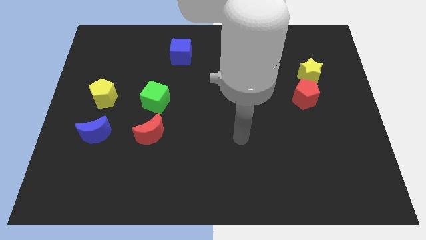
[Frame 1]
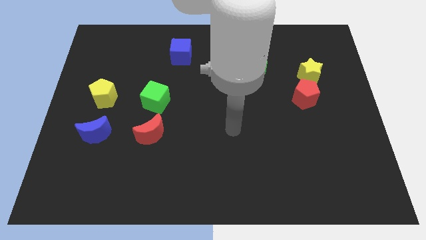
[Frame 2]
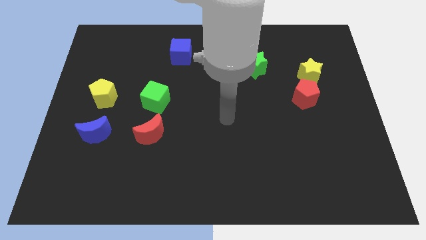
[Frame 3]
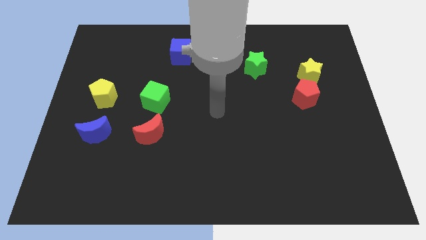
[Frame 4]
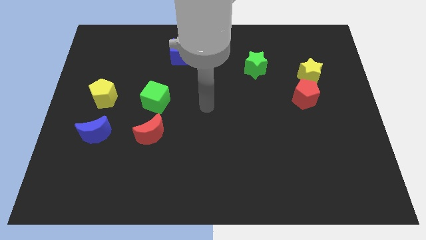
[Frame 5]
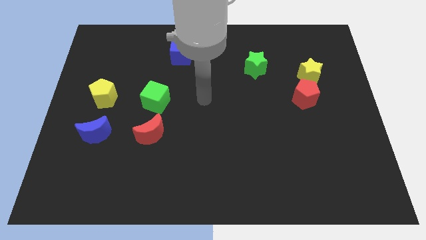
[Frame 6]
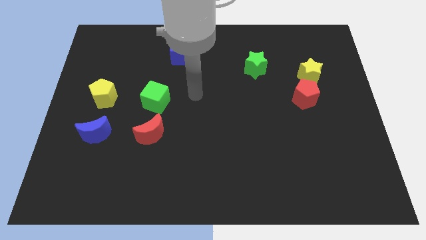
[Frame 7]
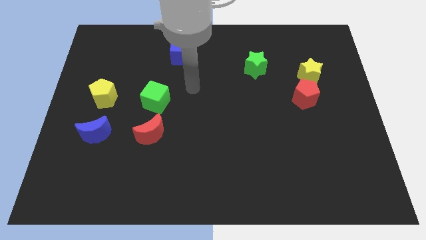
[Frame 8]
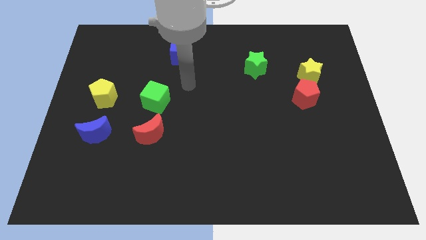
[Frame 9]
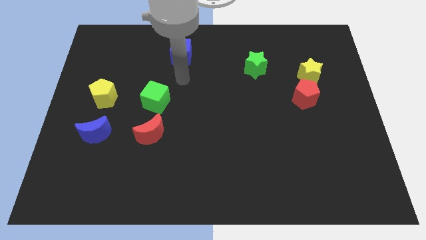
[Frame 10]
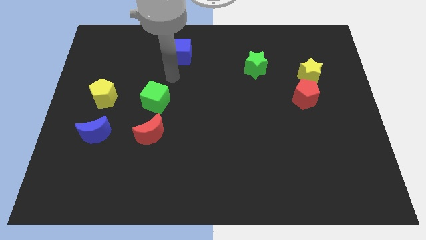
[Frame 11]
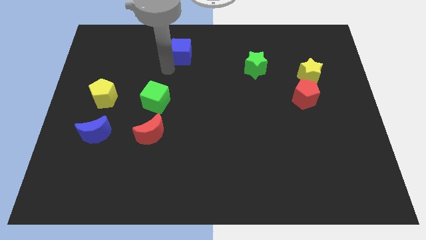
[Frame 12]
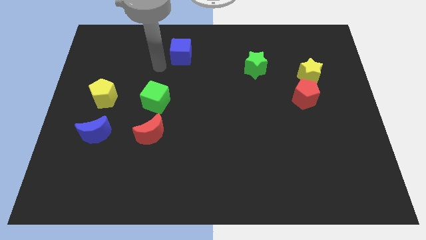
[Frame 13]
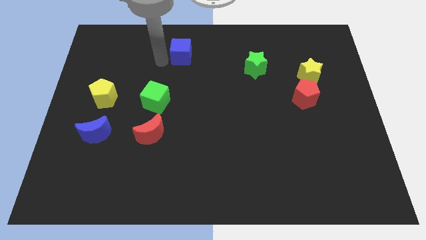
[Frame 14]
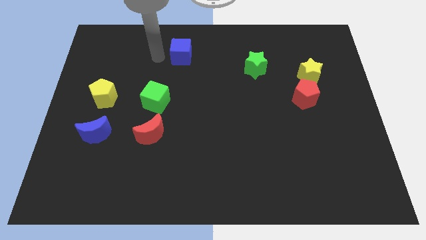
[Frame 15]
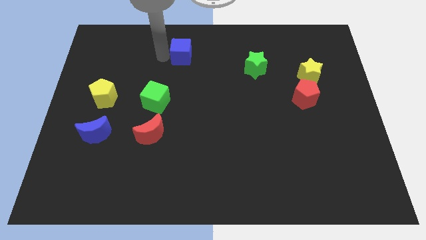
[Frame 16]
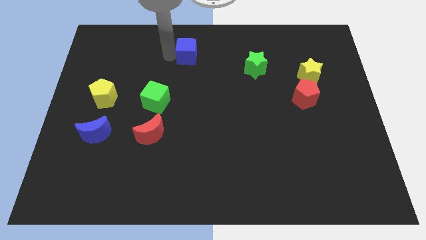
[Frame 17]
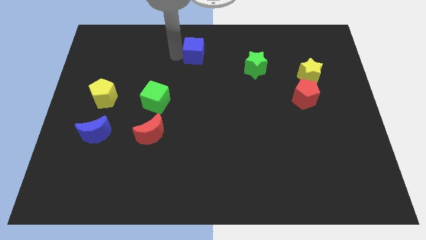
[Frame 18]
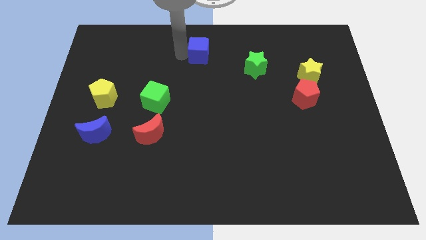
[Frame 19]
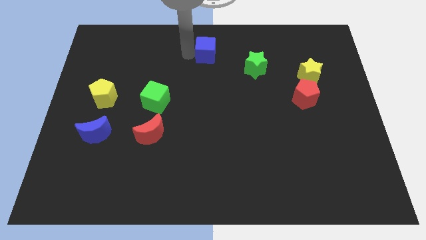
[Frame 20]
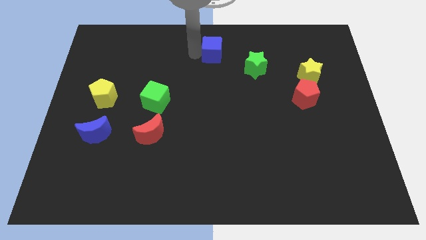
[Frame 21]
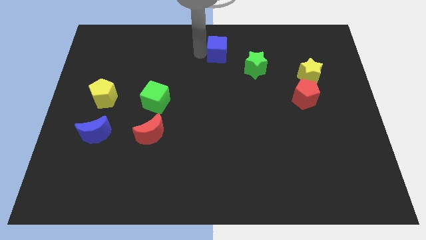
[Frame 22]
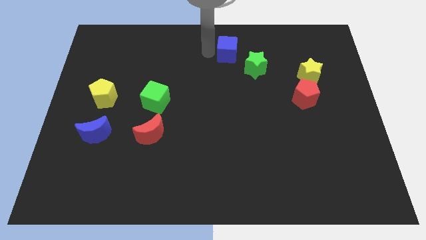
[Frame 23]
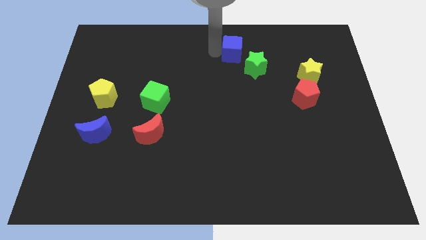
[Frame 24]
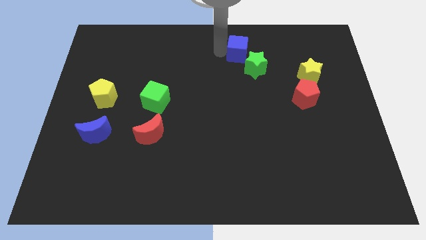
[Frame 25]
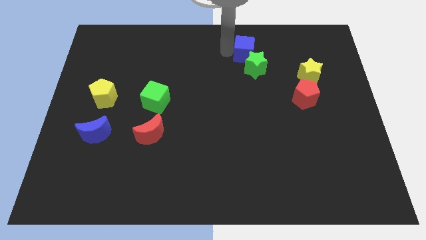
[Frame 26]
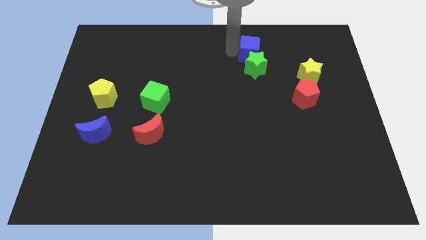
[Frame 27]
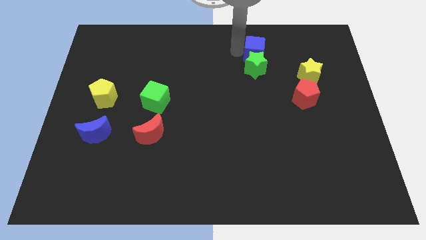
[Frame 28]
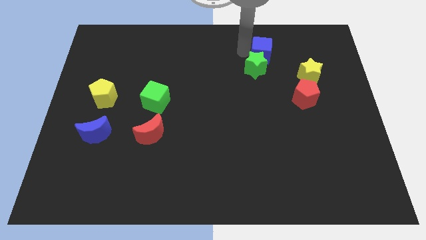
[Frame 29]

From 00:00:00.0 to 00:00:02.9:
slide the blue cube to the right

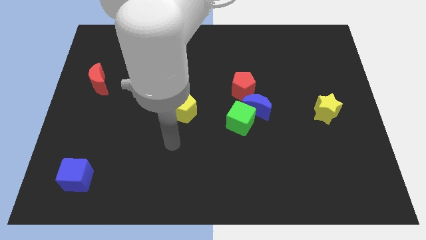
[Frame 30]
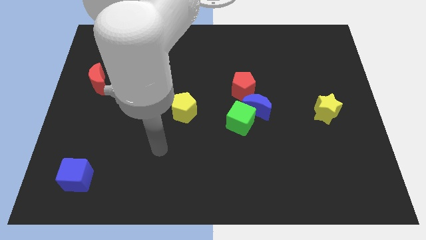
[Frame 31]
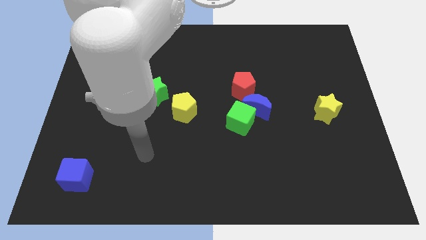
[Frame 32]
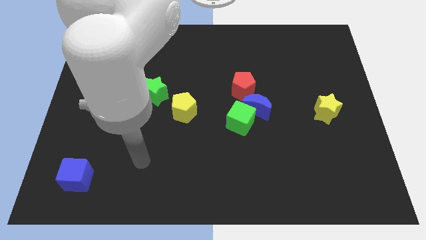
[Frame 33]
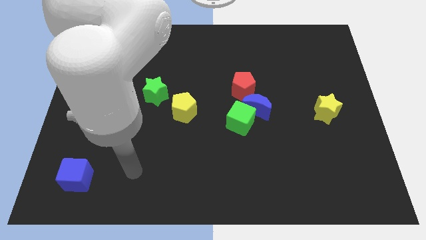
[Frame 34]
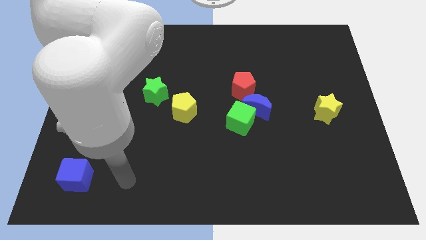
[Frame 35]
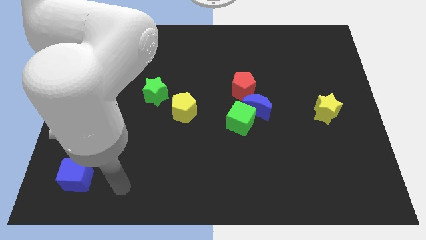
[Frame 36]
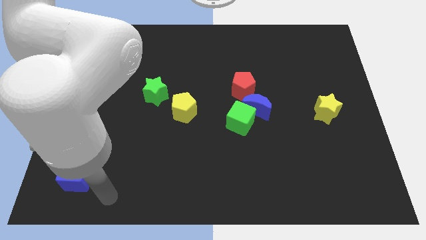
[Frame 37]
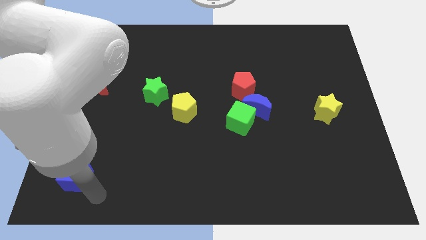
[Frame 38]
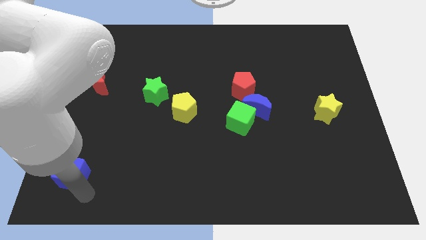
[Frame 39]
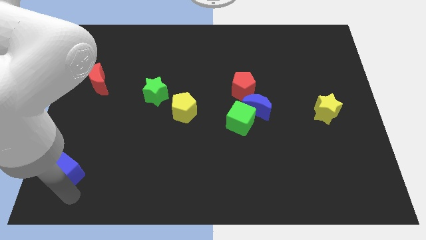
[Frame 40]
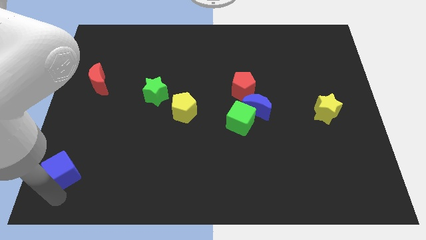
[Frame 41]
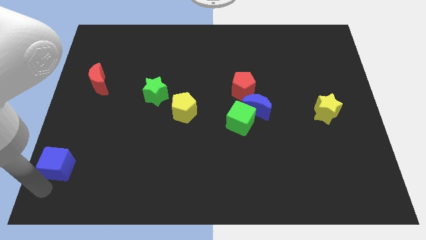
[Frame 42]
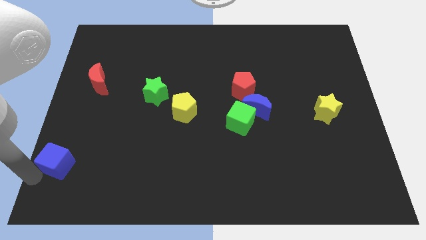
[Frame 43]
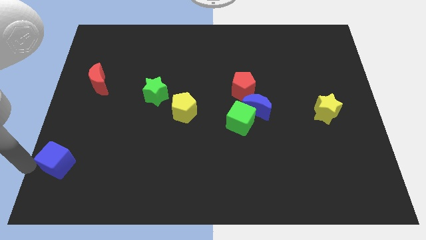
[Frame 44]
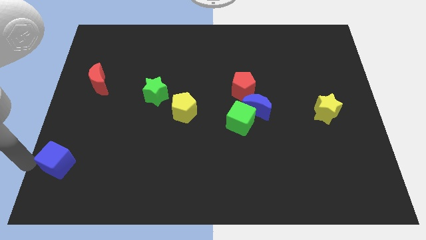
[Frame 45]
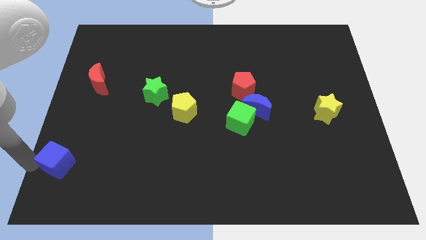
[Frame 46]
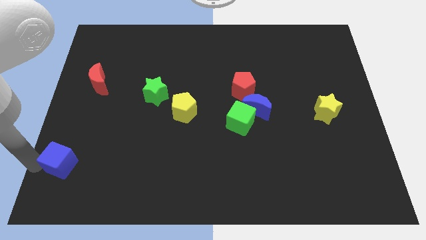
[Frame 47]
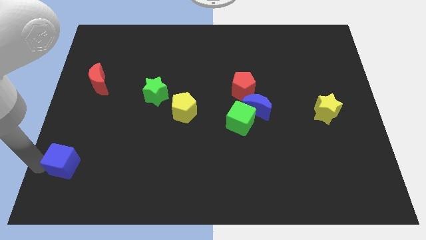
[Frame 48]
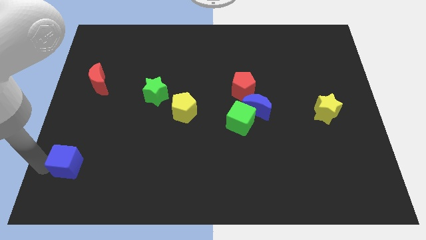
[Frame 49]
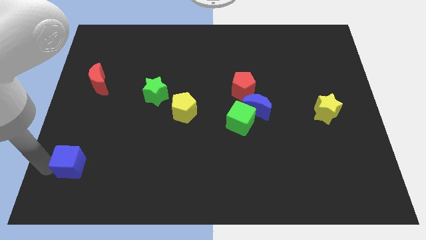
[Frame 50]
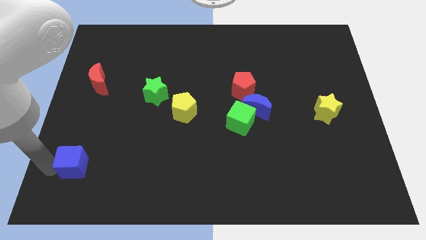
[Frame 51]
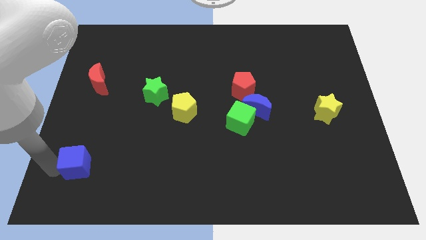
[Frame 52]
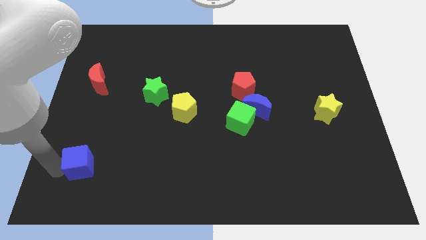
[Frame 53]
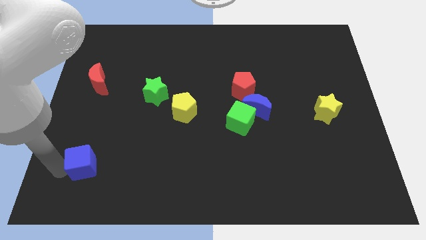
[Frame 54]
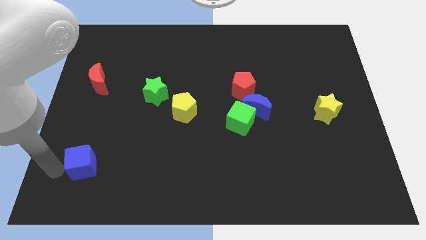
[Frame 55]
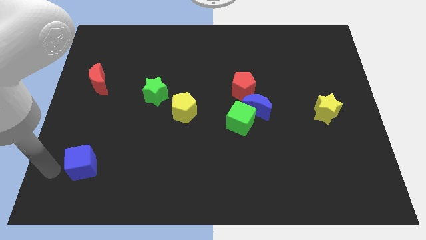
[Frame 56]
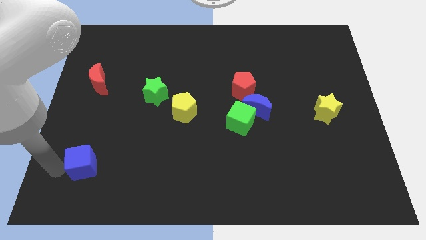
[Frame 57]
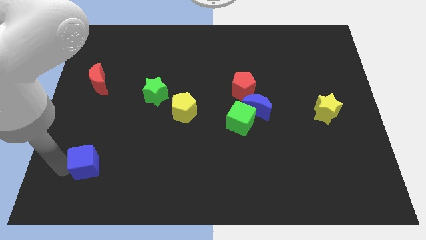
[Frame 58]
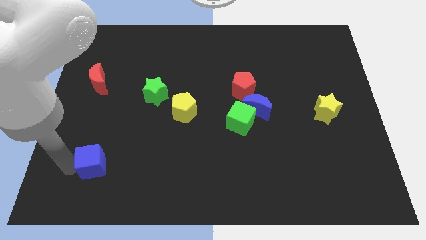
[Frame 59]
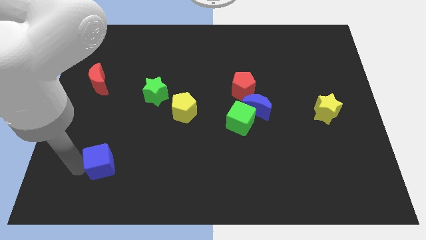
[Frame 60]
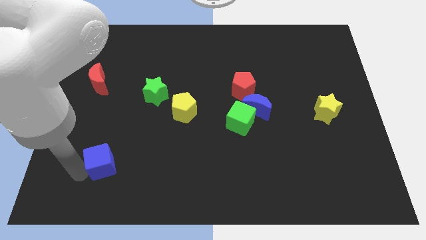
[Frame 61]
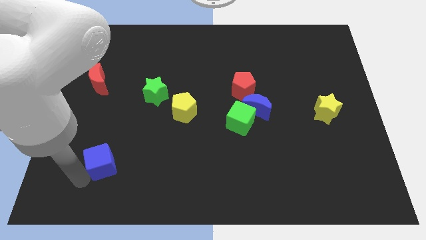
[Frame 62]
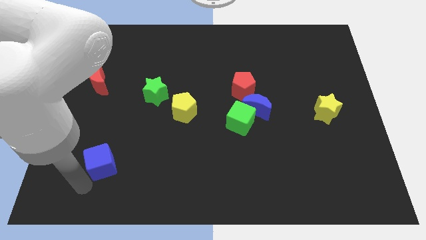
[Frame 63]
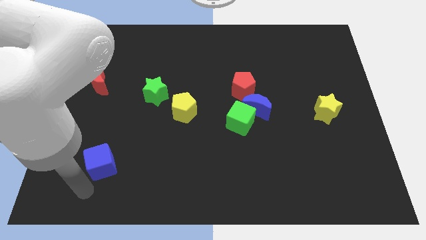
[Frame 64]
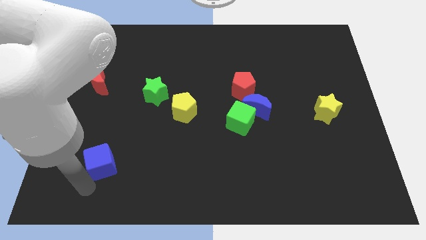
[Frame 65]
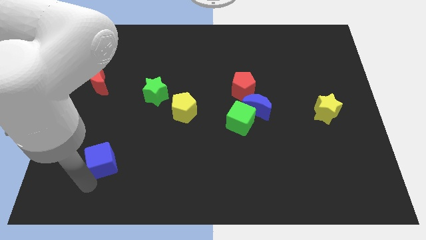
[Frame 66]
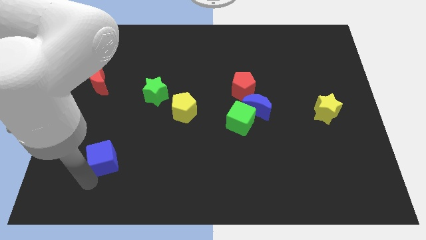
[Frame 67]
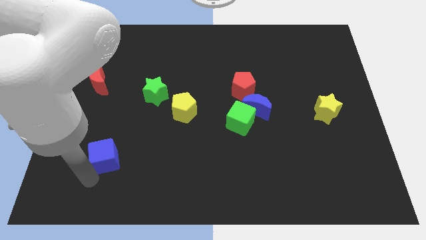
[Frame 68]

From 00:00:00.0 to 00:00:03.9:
slide the blue cube a little bit diagonally up and right

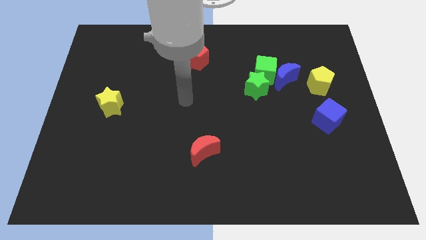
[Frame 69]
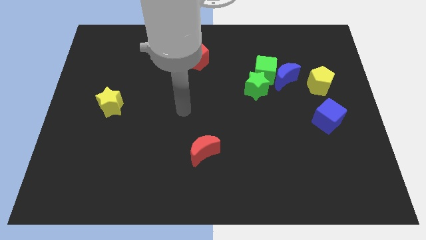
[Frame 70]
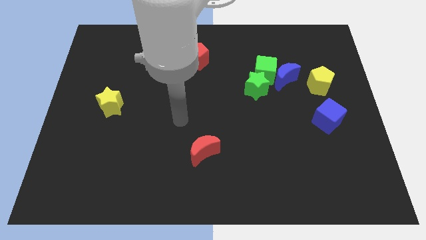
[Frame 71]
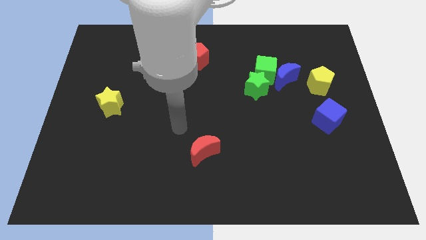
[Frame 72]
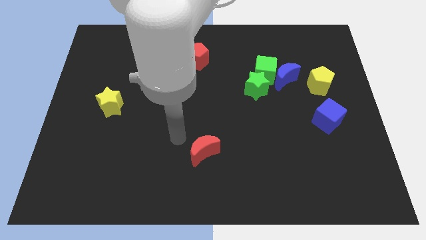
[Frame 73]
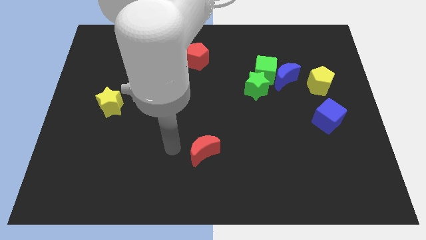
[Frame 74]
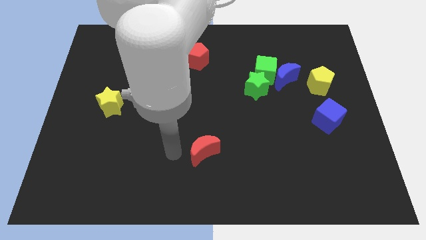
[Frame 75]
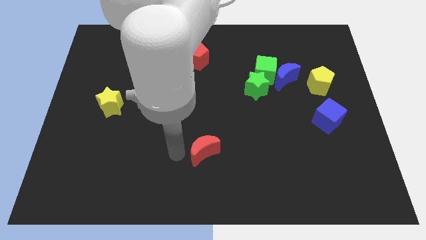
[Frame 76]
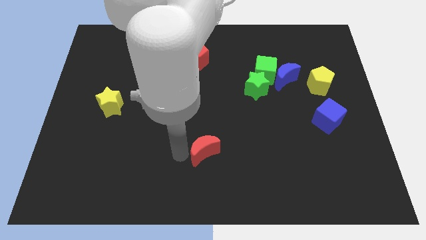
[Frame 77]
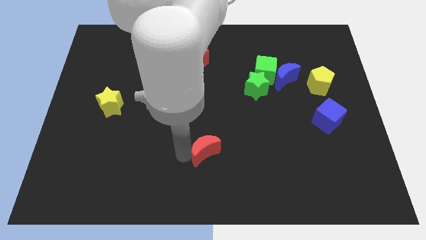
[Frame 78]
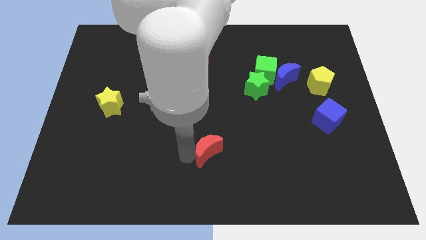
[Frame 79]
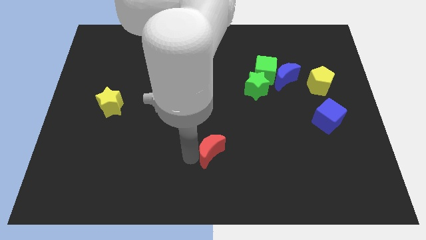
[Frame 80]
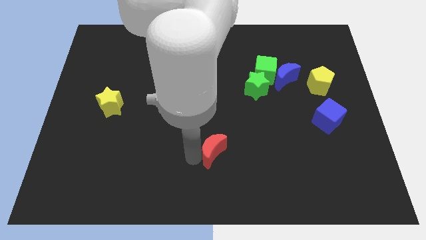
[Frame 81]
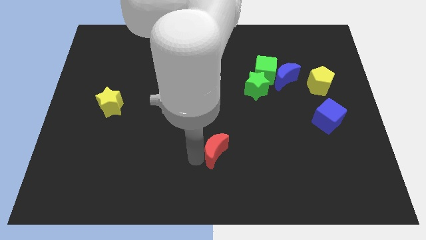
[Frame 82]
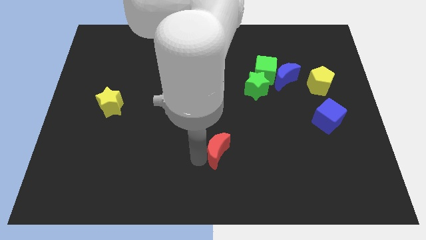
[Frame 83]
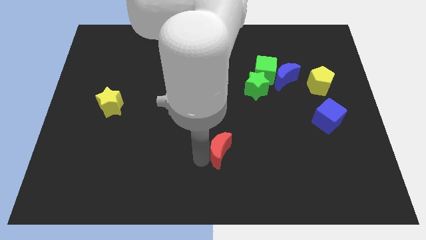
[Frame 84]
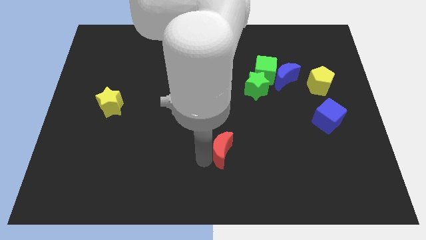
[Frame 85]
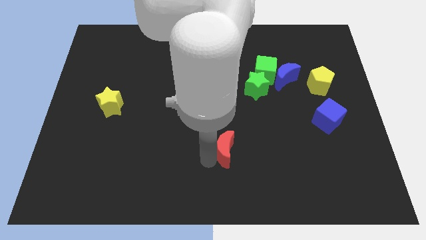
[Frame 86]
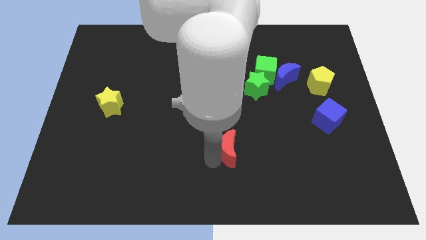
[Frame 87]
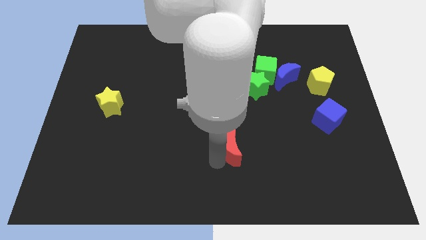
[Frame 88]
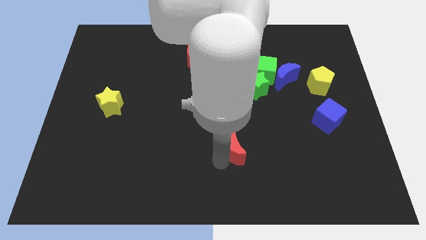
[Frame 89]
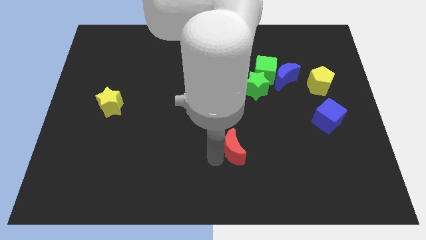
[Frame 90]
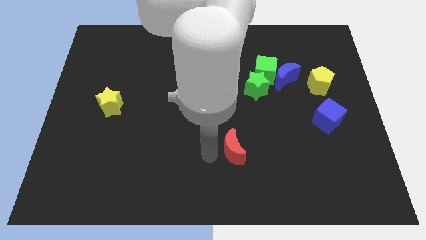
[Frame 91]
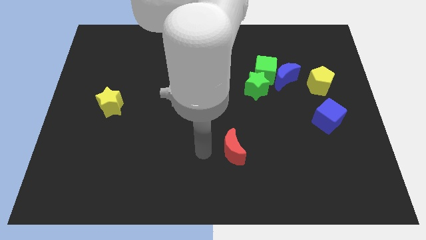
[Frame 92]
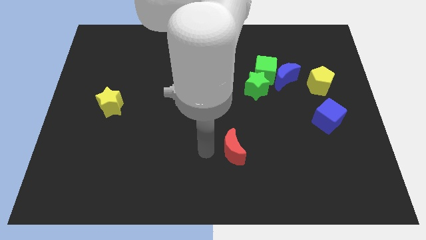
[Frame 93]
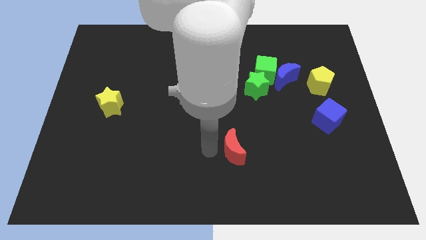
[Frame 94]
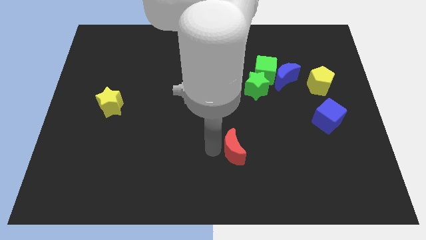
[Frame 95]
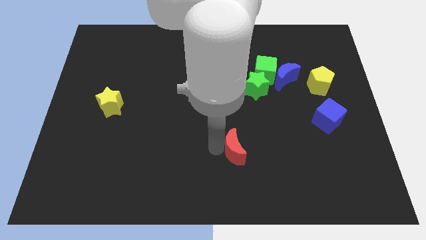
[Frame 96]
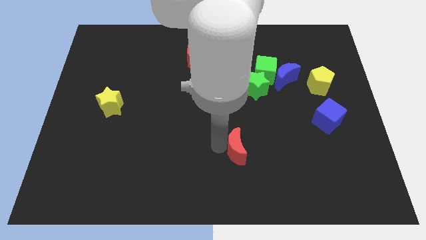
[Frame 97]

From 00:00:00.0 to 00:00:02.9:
slightly push the red moon to the right
